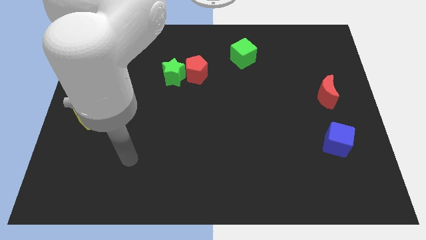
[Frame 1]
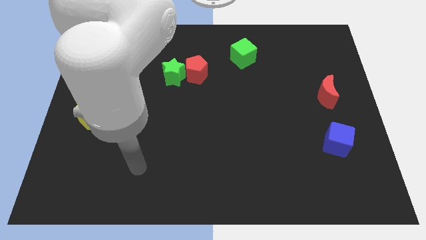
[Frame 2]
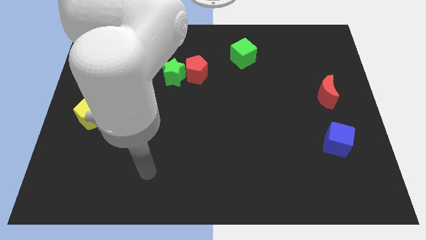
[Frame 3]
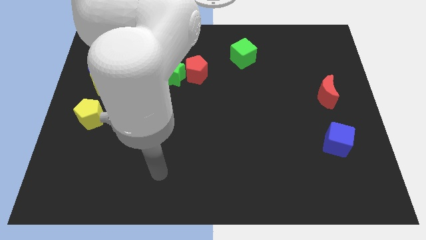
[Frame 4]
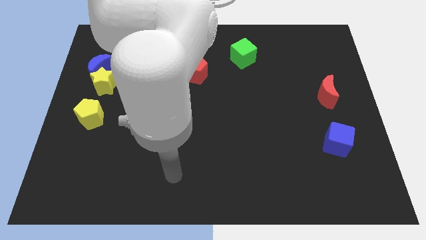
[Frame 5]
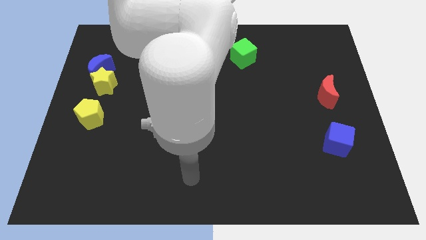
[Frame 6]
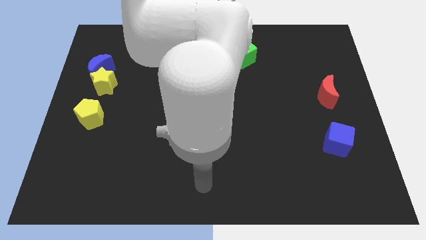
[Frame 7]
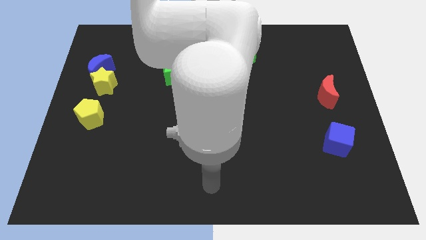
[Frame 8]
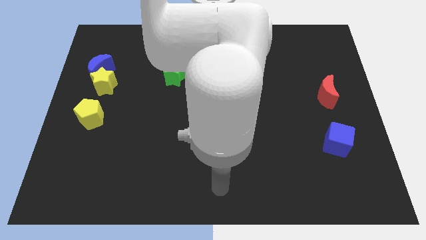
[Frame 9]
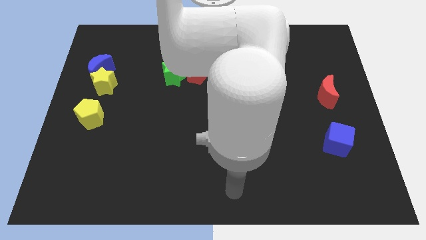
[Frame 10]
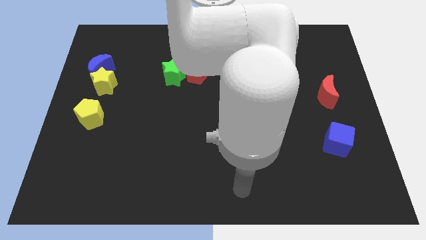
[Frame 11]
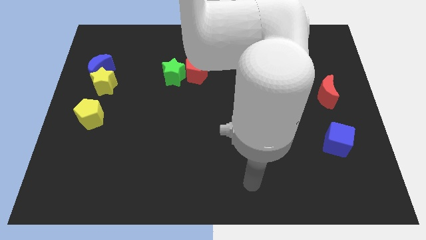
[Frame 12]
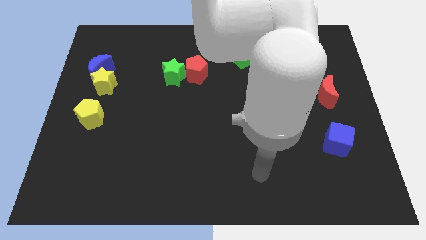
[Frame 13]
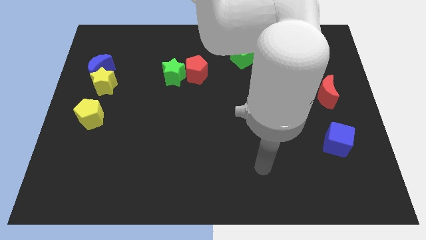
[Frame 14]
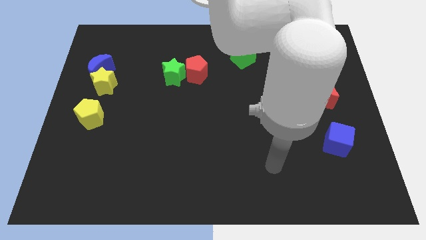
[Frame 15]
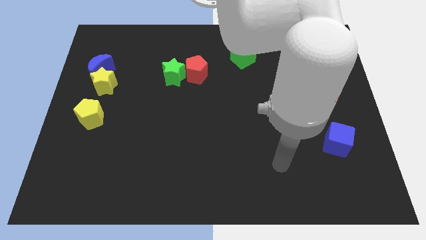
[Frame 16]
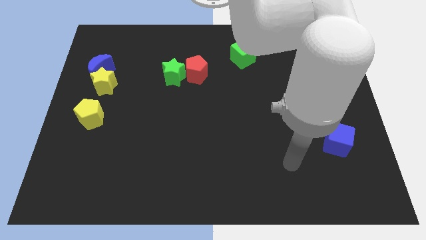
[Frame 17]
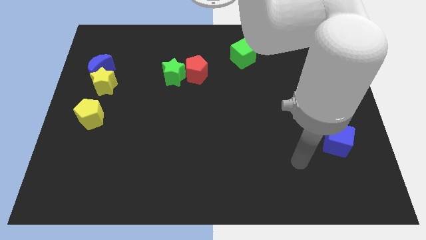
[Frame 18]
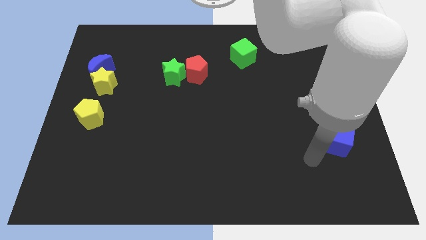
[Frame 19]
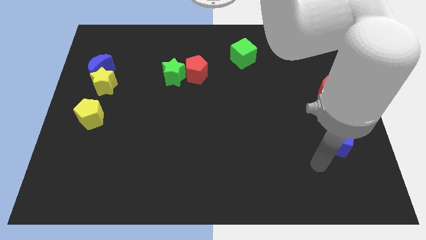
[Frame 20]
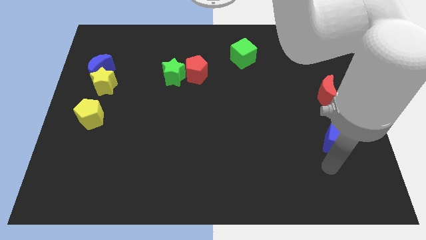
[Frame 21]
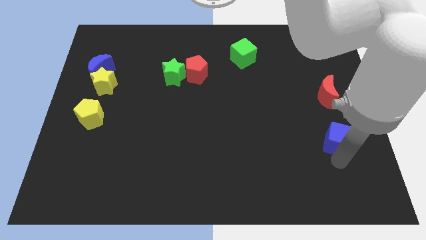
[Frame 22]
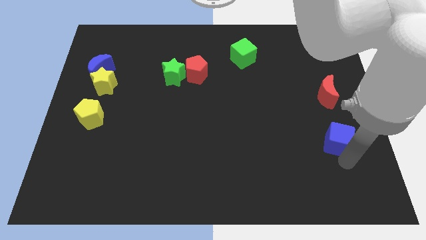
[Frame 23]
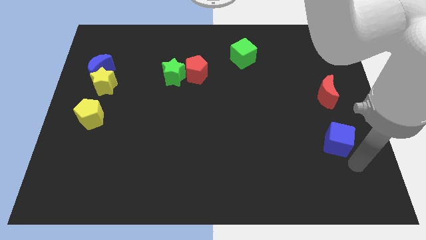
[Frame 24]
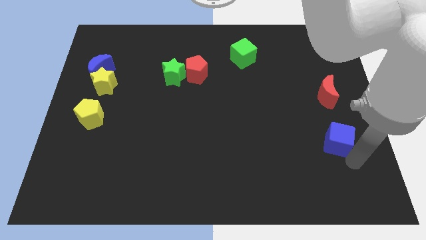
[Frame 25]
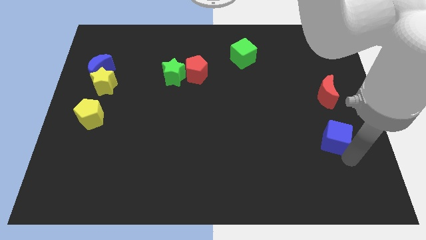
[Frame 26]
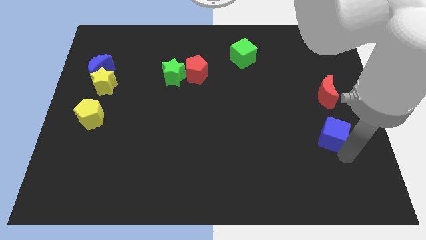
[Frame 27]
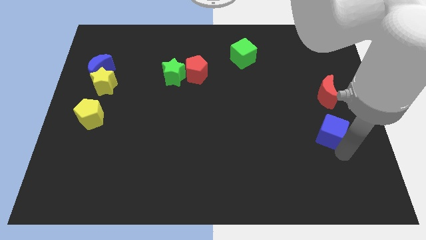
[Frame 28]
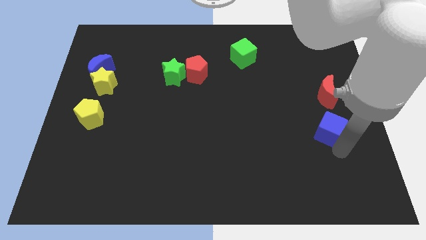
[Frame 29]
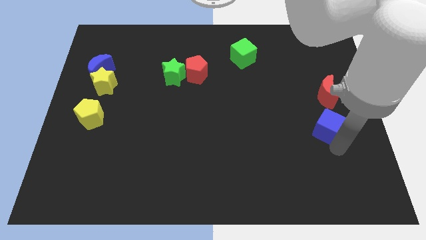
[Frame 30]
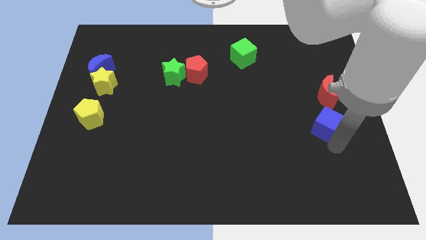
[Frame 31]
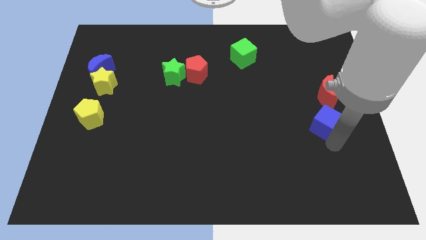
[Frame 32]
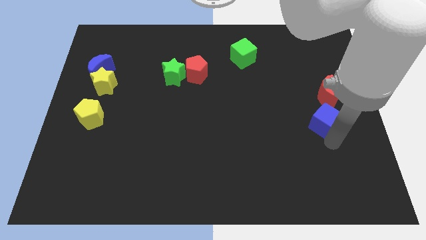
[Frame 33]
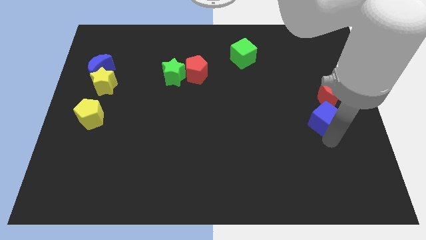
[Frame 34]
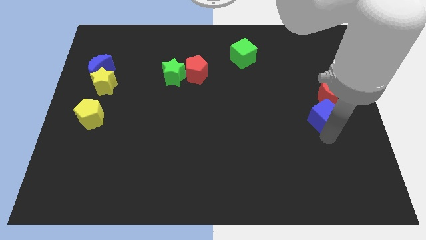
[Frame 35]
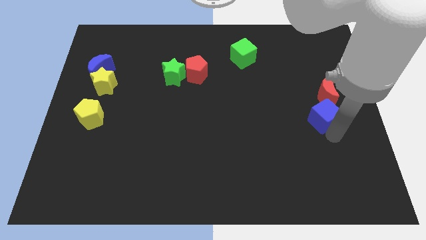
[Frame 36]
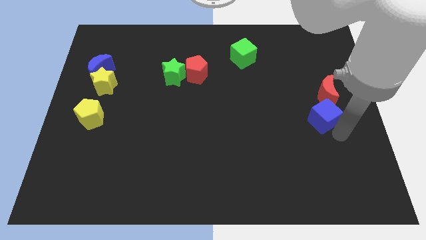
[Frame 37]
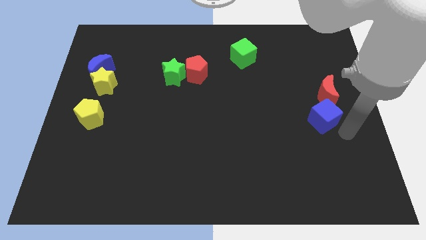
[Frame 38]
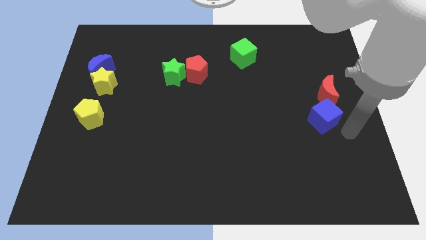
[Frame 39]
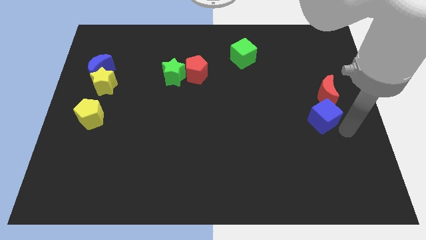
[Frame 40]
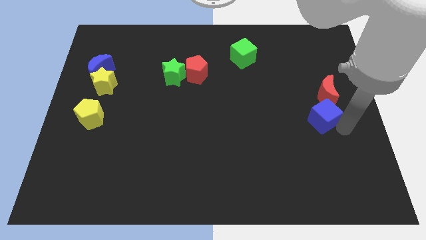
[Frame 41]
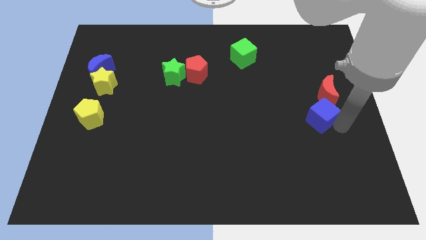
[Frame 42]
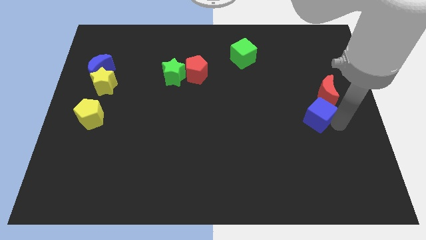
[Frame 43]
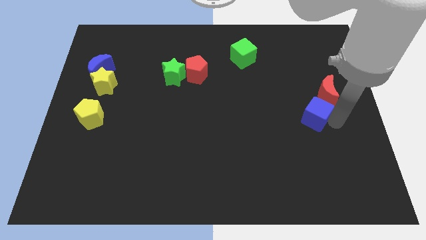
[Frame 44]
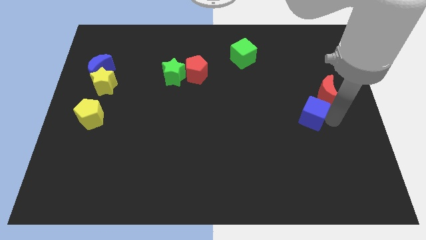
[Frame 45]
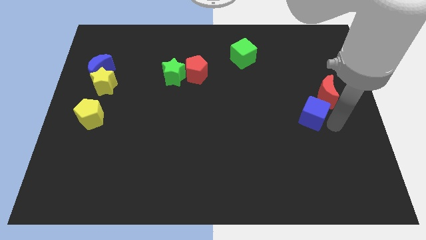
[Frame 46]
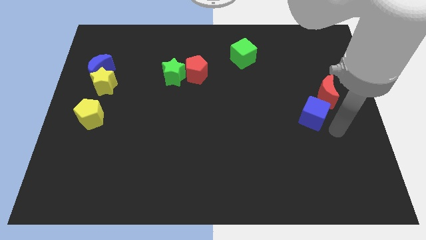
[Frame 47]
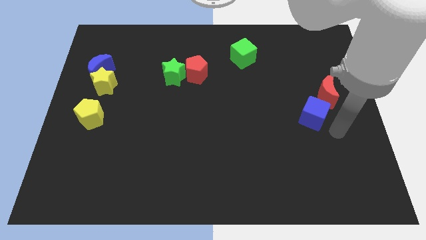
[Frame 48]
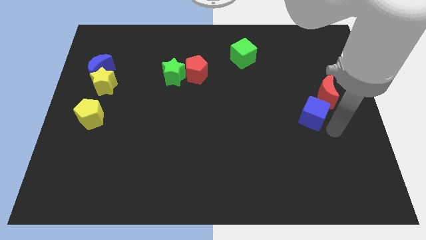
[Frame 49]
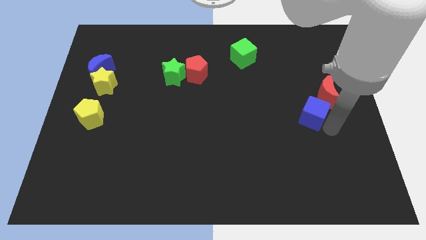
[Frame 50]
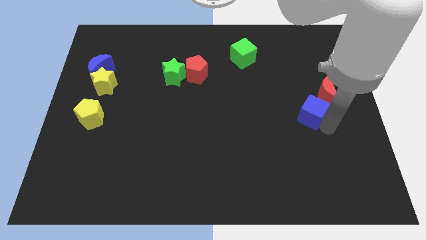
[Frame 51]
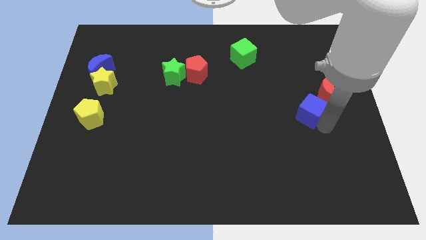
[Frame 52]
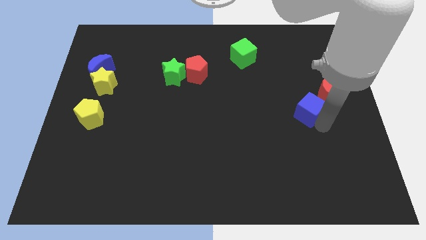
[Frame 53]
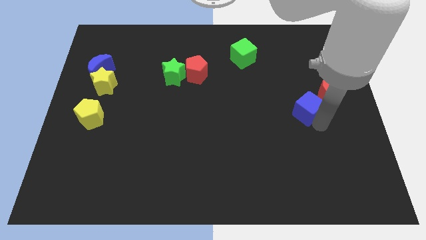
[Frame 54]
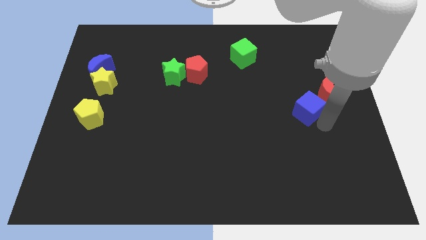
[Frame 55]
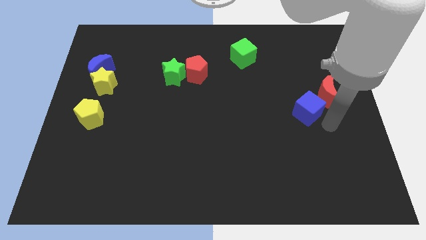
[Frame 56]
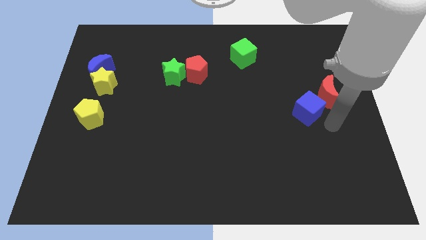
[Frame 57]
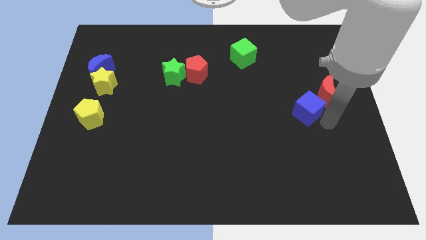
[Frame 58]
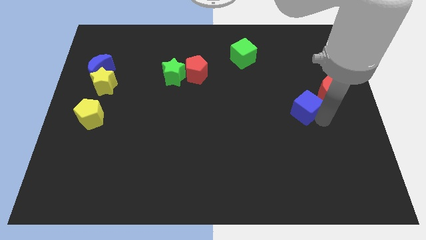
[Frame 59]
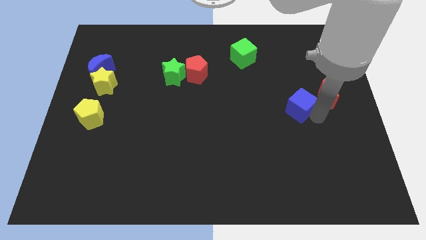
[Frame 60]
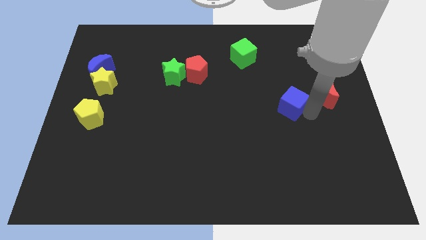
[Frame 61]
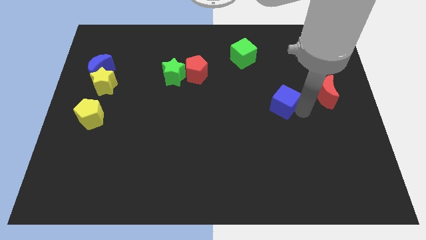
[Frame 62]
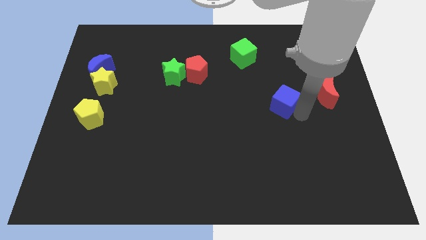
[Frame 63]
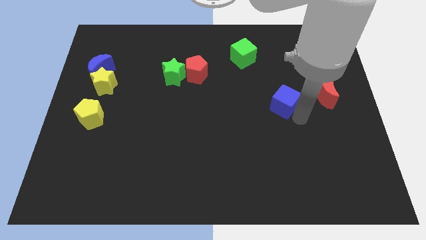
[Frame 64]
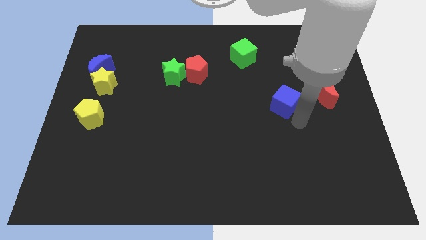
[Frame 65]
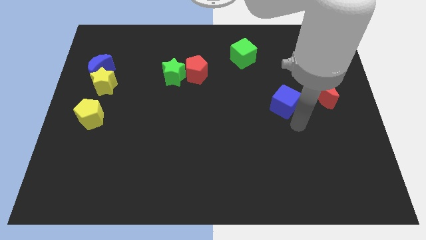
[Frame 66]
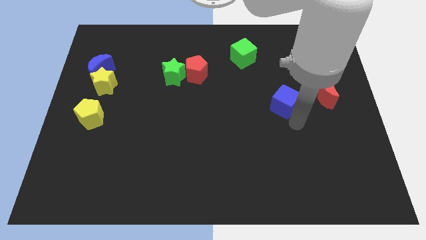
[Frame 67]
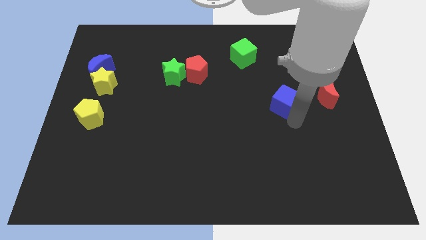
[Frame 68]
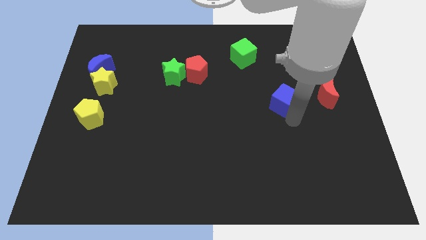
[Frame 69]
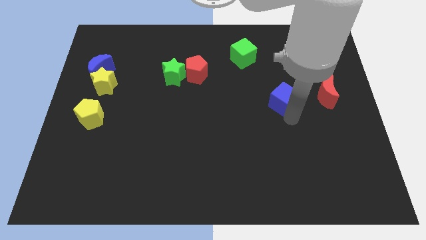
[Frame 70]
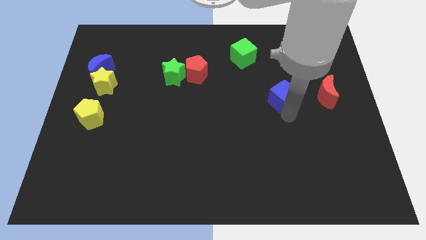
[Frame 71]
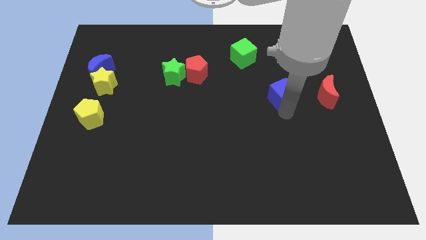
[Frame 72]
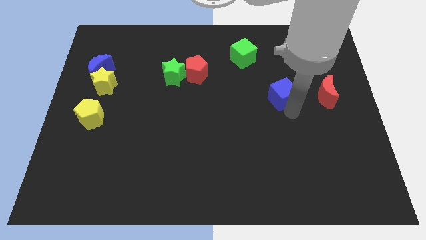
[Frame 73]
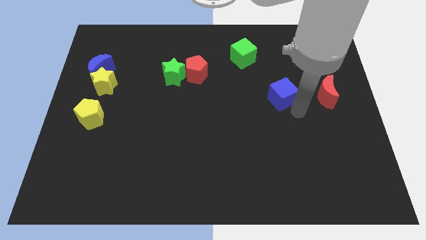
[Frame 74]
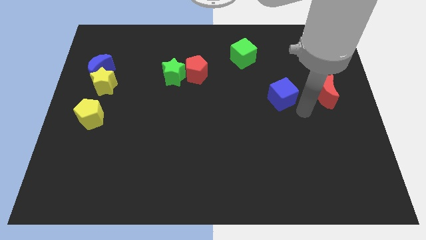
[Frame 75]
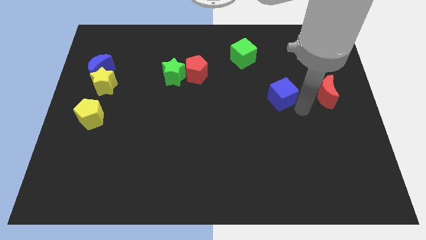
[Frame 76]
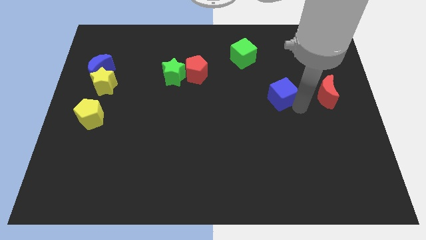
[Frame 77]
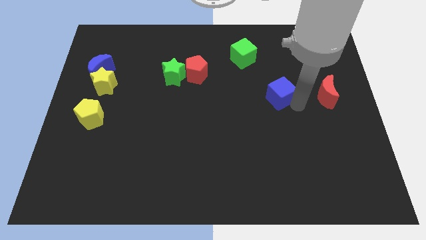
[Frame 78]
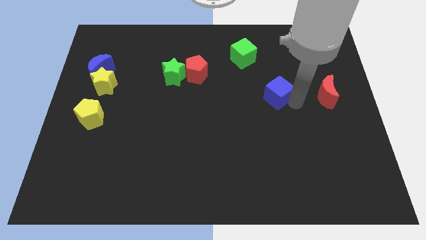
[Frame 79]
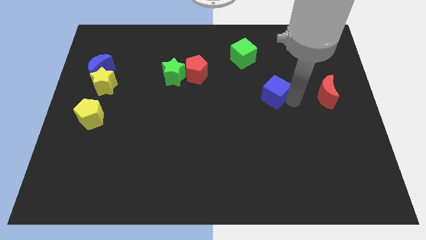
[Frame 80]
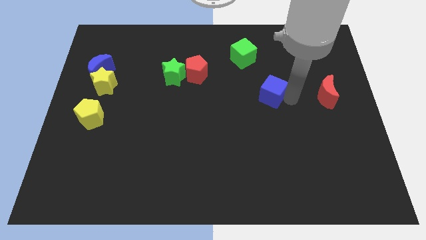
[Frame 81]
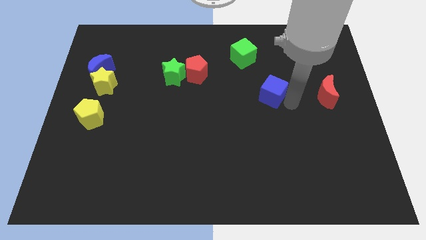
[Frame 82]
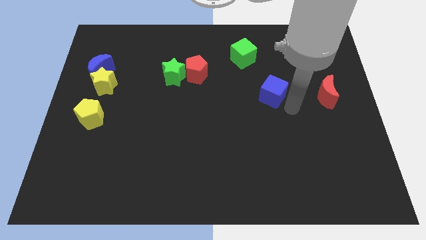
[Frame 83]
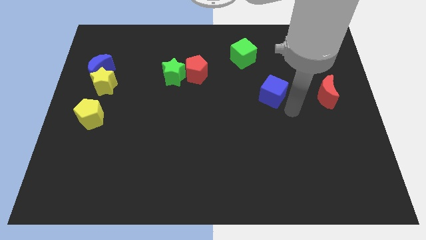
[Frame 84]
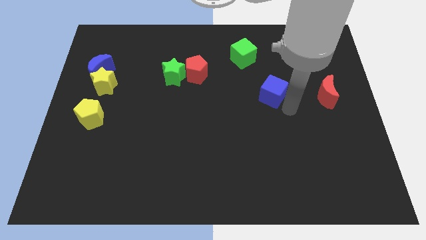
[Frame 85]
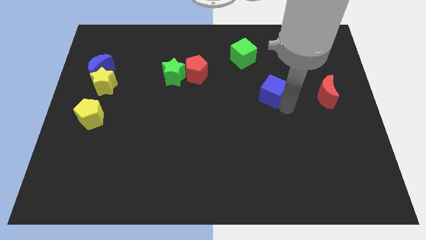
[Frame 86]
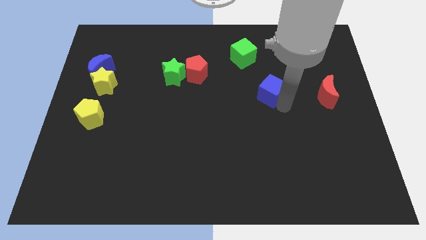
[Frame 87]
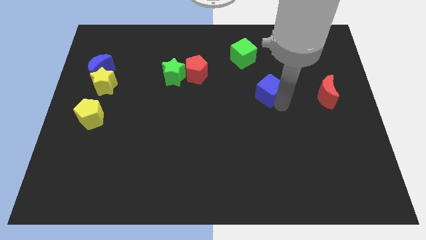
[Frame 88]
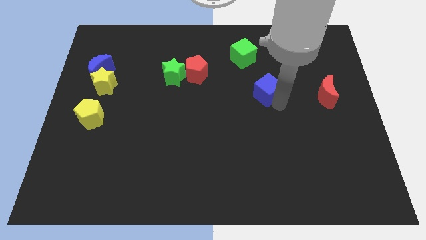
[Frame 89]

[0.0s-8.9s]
move the blue cube upwards and left diagonally
